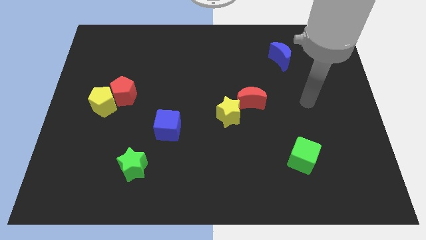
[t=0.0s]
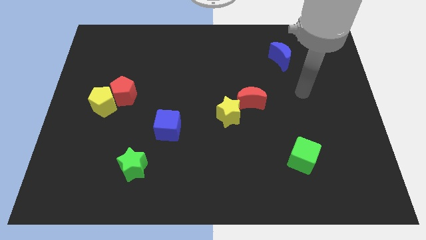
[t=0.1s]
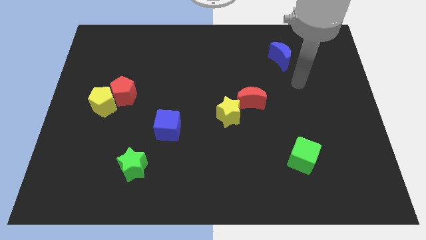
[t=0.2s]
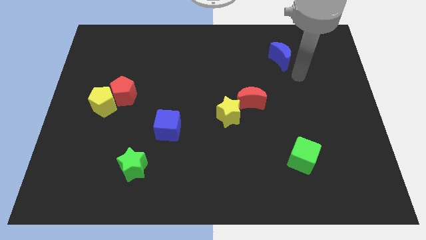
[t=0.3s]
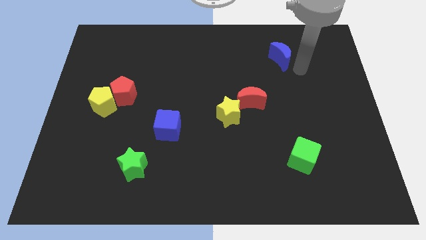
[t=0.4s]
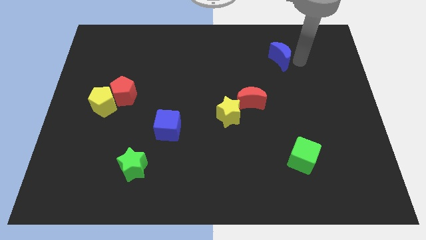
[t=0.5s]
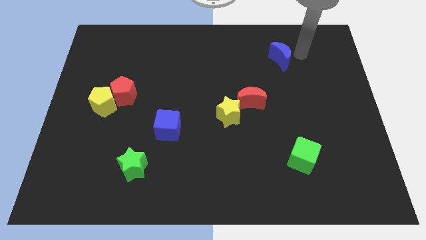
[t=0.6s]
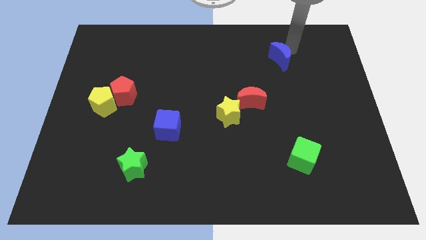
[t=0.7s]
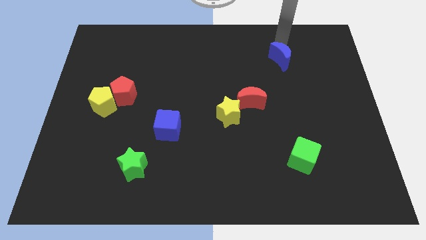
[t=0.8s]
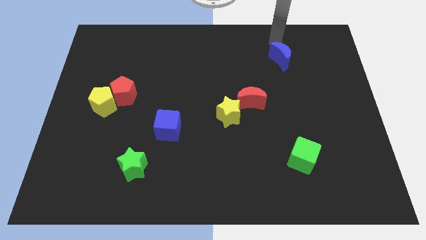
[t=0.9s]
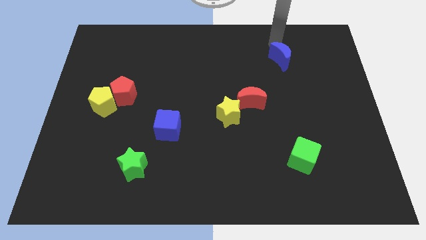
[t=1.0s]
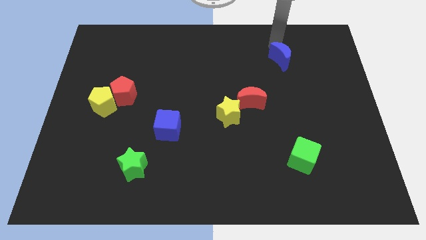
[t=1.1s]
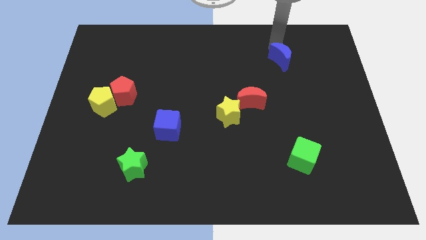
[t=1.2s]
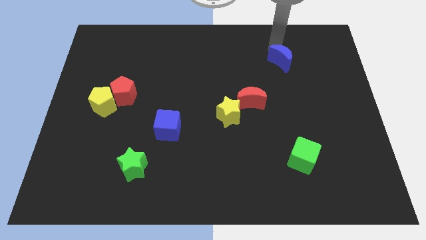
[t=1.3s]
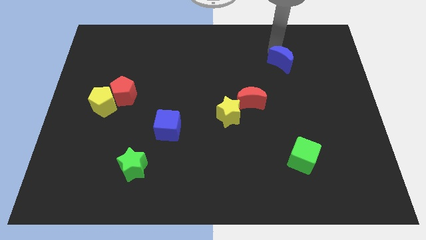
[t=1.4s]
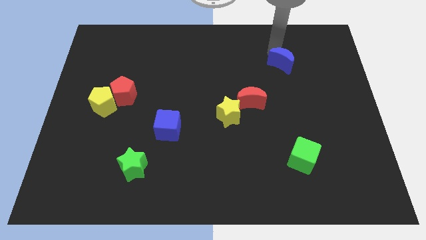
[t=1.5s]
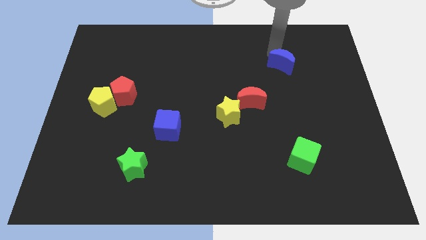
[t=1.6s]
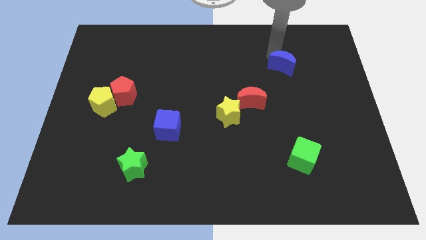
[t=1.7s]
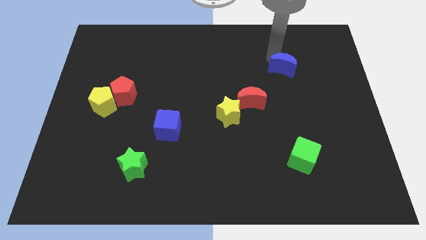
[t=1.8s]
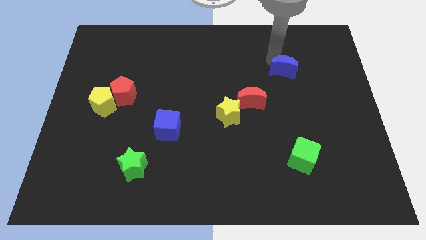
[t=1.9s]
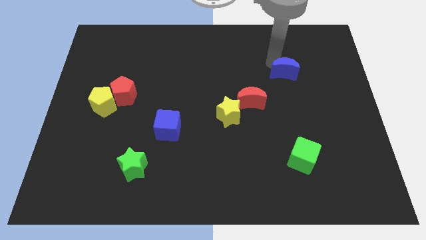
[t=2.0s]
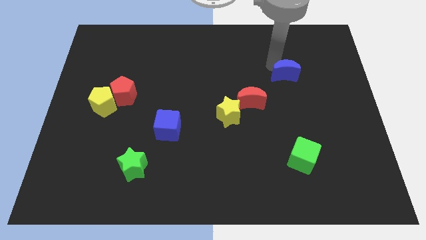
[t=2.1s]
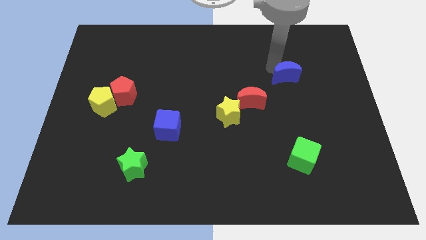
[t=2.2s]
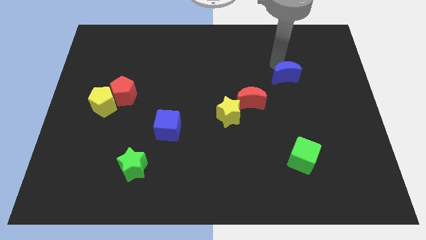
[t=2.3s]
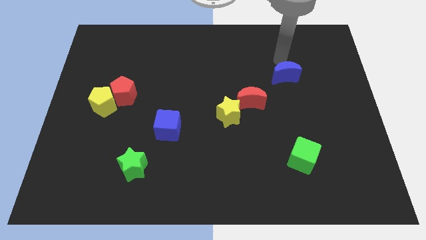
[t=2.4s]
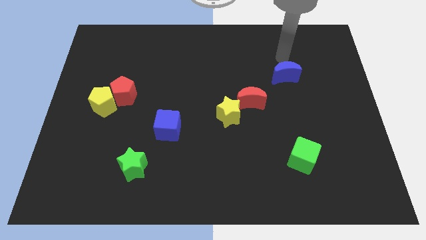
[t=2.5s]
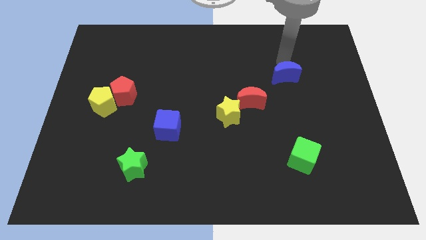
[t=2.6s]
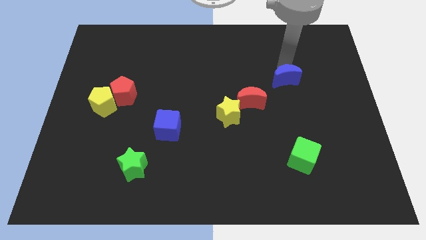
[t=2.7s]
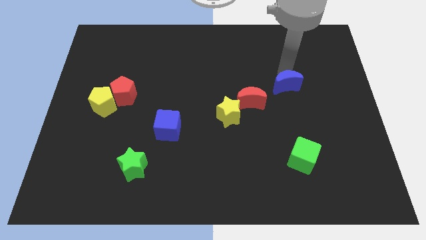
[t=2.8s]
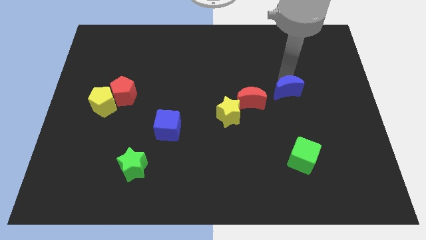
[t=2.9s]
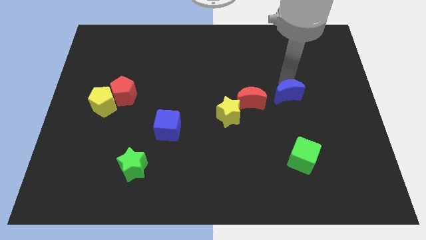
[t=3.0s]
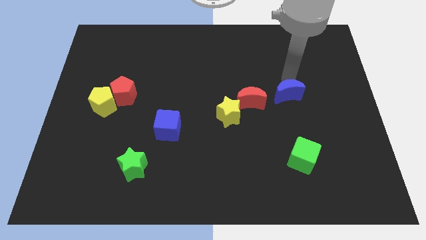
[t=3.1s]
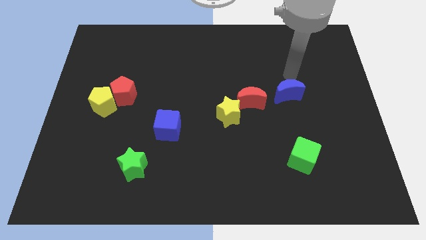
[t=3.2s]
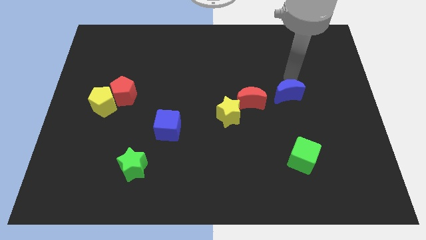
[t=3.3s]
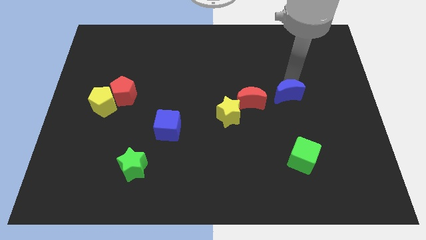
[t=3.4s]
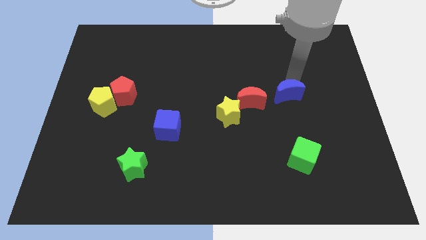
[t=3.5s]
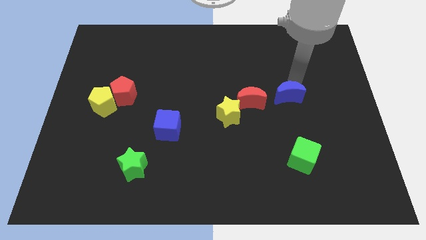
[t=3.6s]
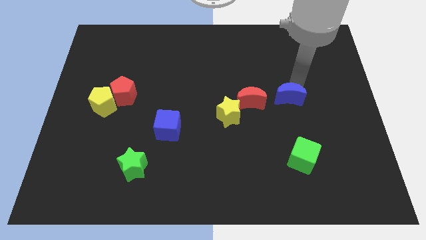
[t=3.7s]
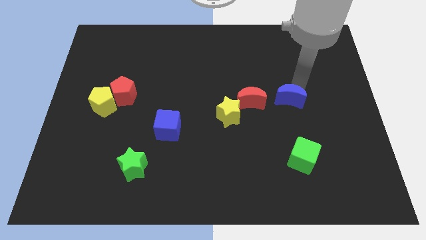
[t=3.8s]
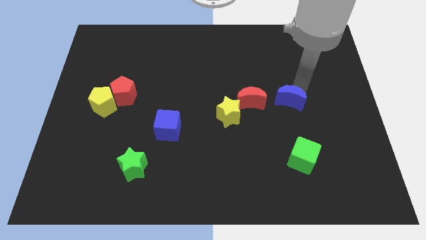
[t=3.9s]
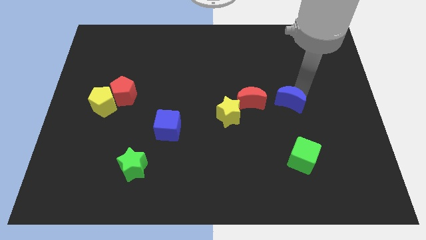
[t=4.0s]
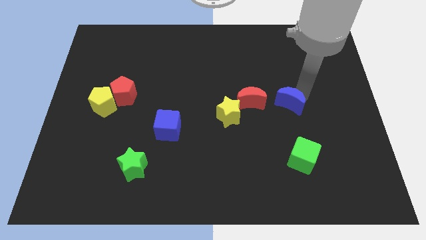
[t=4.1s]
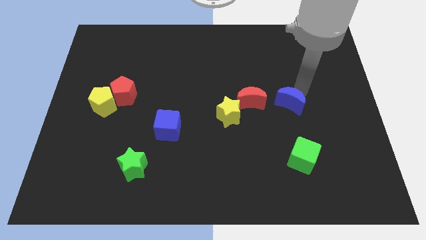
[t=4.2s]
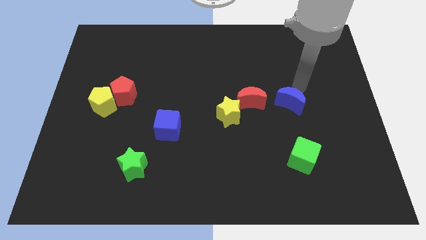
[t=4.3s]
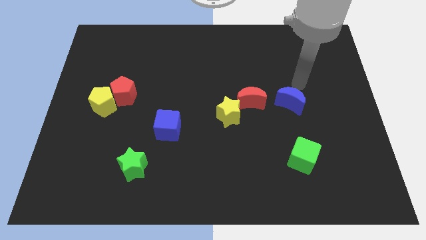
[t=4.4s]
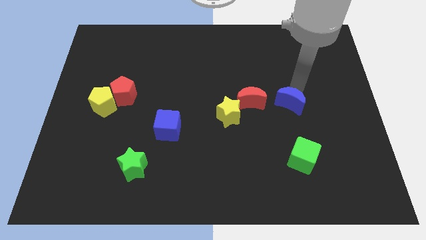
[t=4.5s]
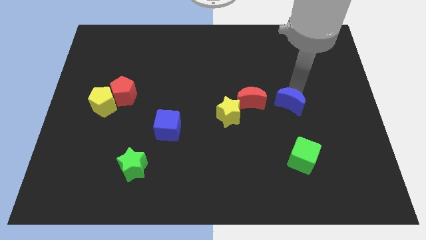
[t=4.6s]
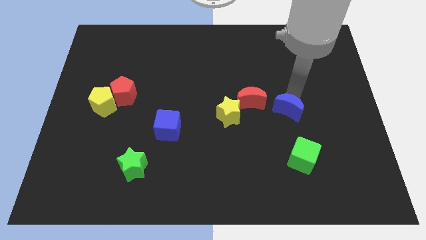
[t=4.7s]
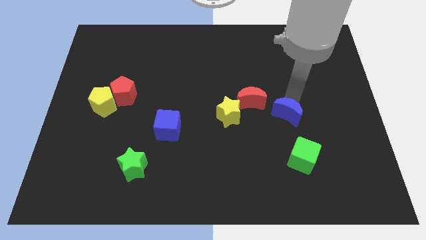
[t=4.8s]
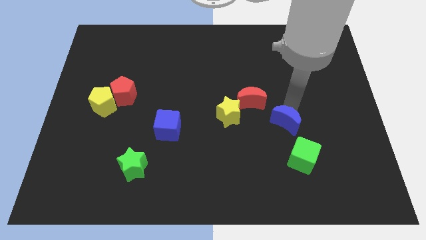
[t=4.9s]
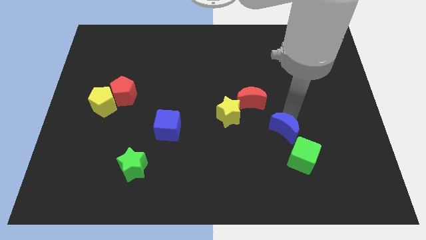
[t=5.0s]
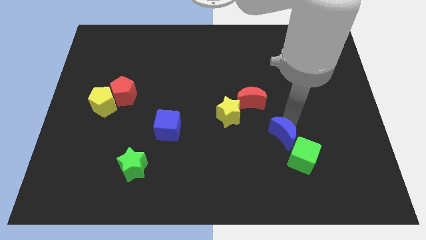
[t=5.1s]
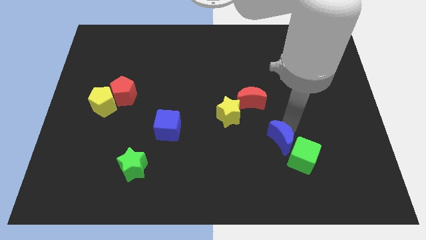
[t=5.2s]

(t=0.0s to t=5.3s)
put the blue moon to the left side of the green cube
